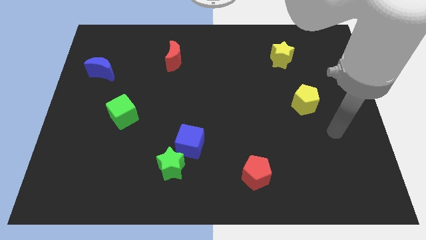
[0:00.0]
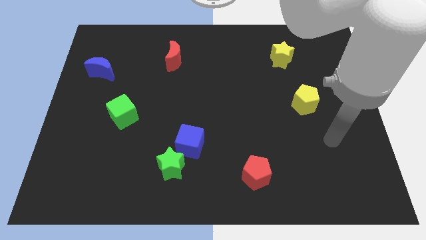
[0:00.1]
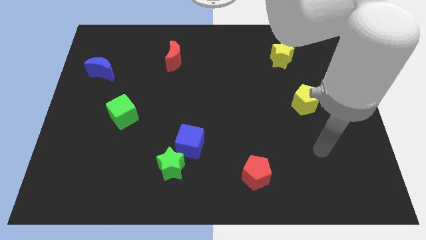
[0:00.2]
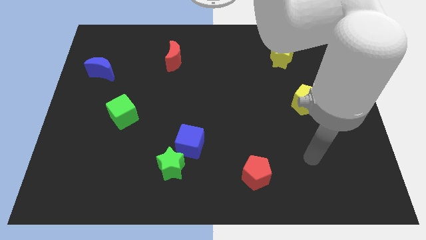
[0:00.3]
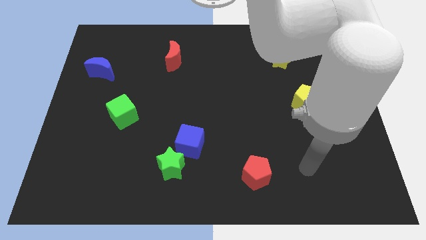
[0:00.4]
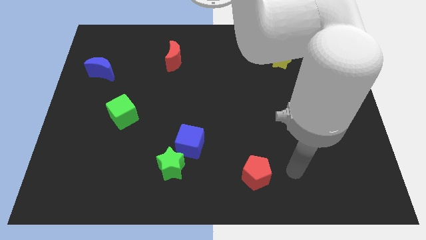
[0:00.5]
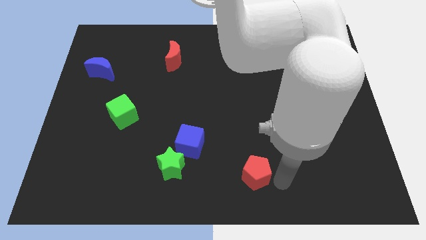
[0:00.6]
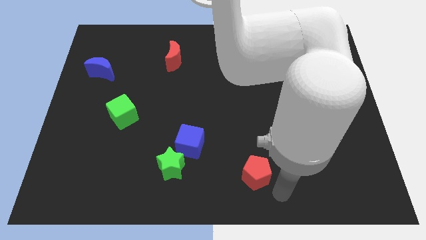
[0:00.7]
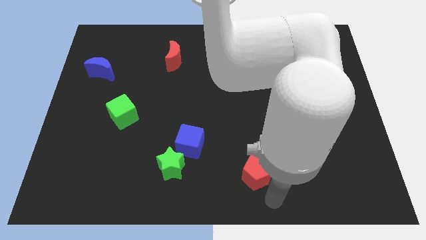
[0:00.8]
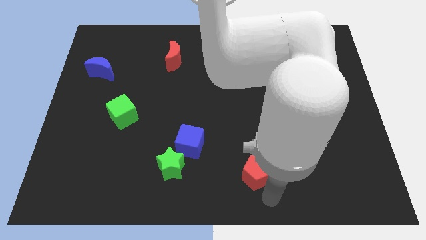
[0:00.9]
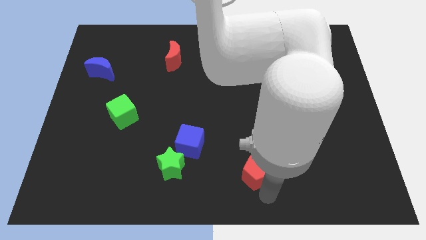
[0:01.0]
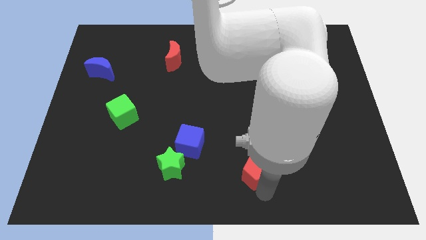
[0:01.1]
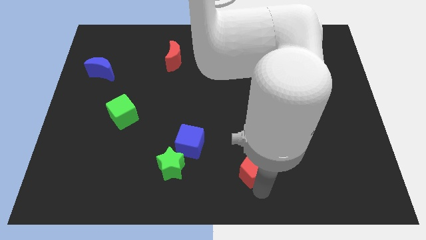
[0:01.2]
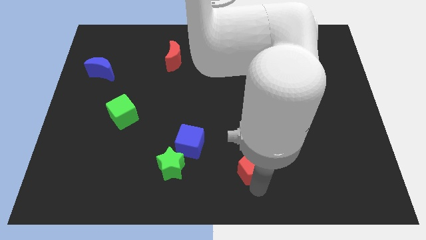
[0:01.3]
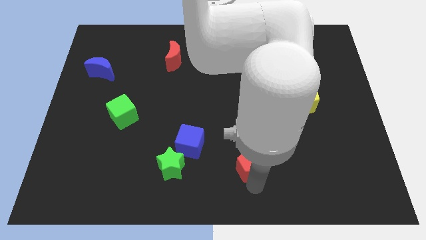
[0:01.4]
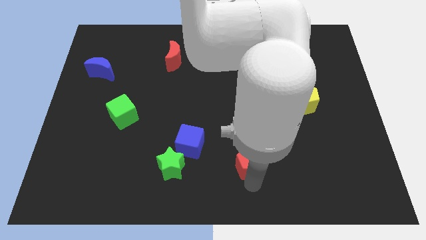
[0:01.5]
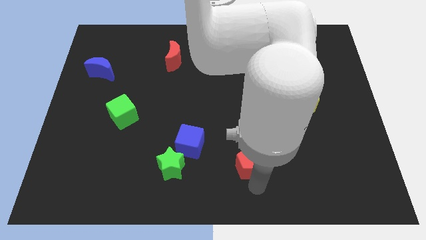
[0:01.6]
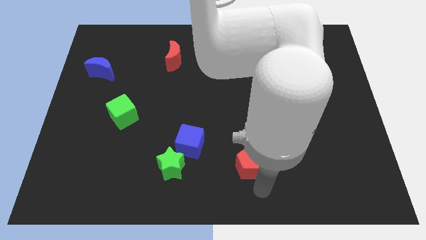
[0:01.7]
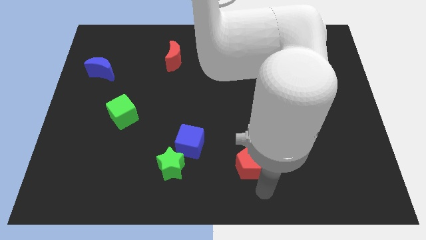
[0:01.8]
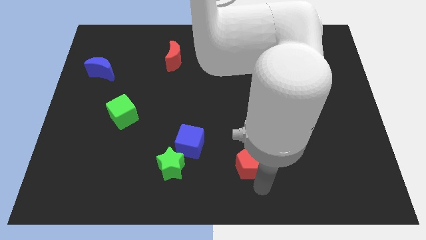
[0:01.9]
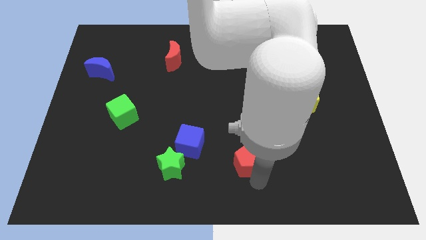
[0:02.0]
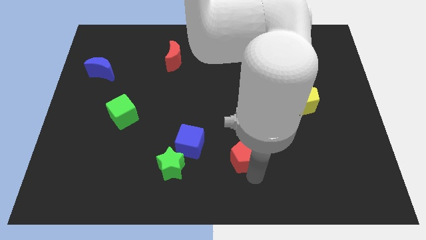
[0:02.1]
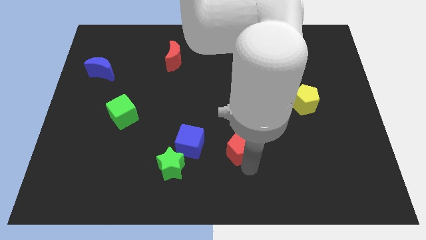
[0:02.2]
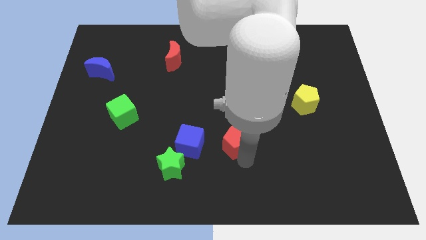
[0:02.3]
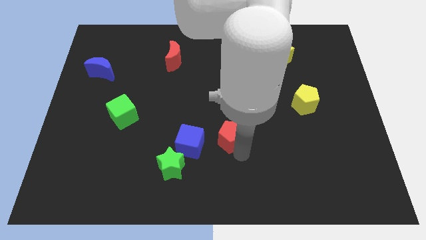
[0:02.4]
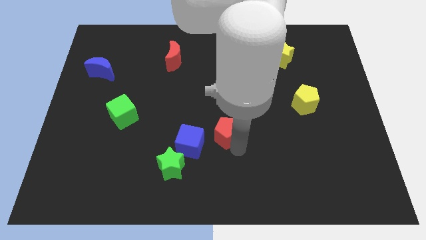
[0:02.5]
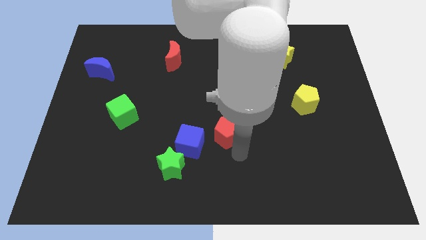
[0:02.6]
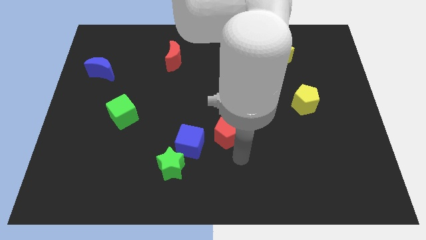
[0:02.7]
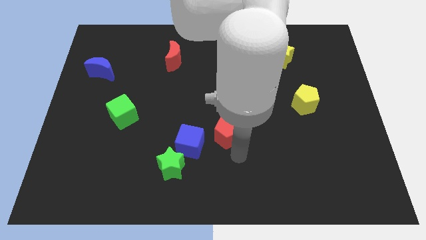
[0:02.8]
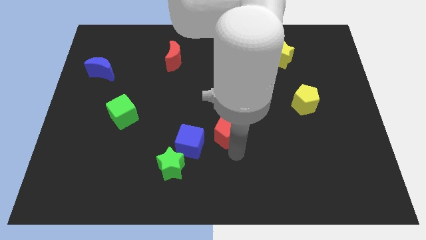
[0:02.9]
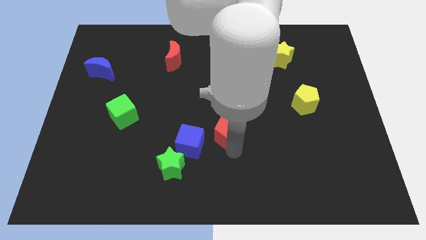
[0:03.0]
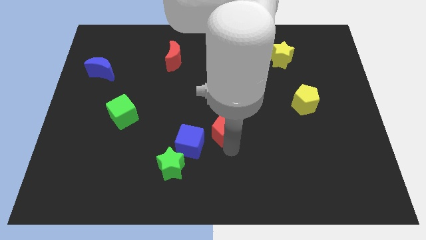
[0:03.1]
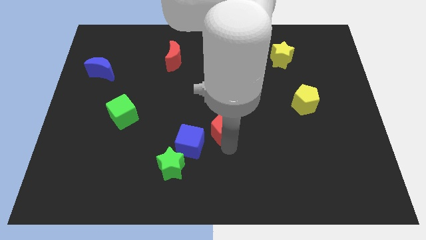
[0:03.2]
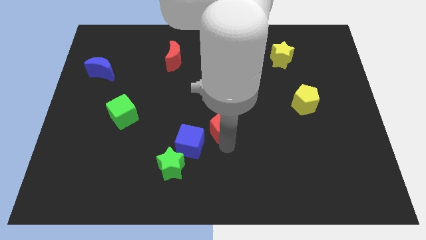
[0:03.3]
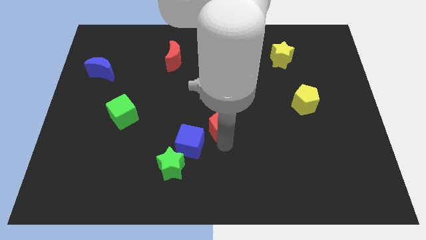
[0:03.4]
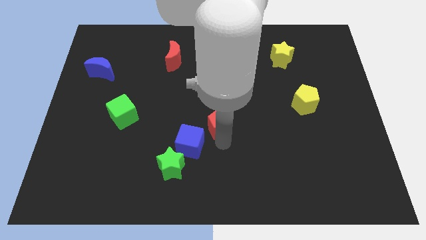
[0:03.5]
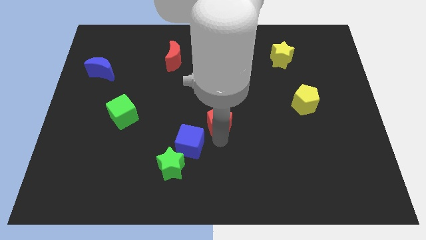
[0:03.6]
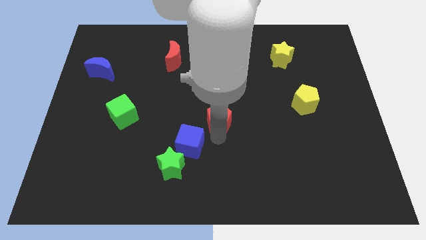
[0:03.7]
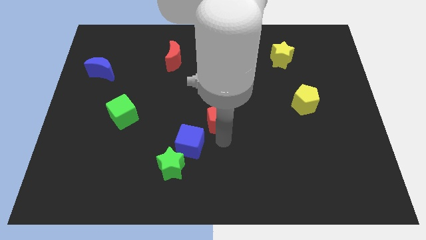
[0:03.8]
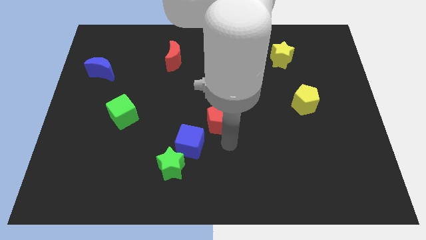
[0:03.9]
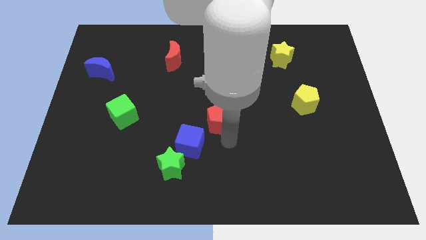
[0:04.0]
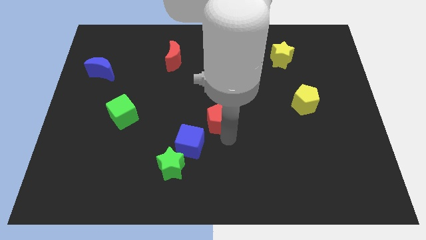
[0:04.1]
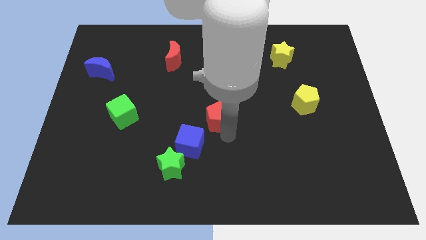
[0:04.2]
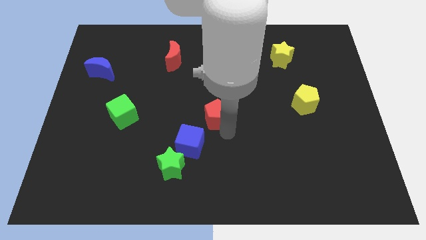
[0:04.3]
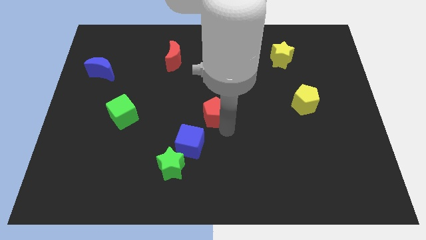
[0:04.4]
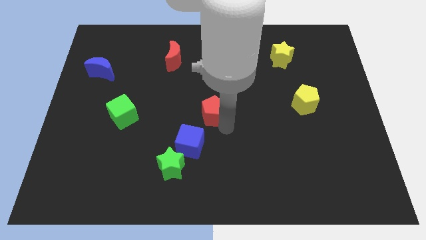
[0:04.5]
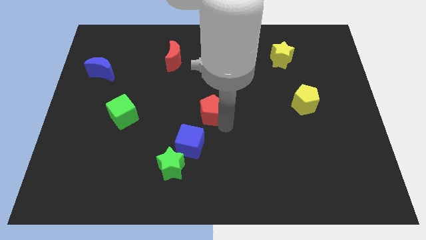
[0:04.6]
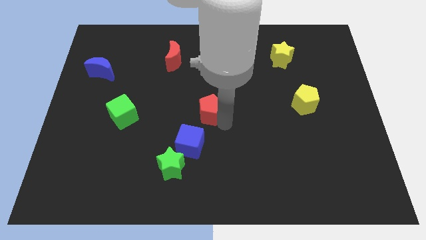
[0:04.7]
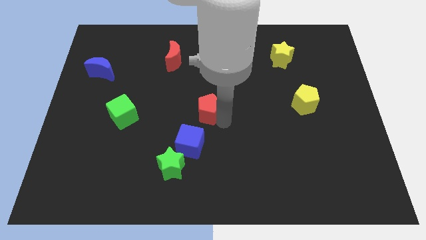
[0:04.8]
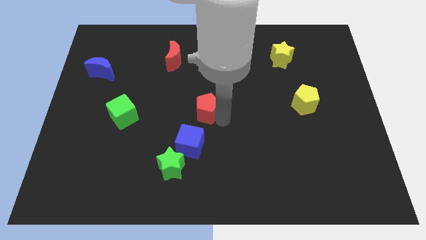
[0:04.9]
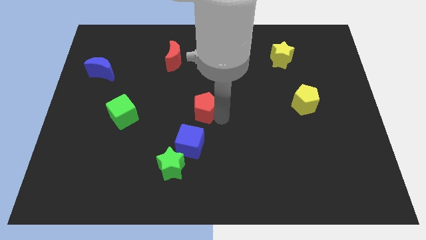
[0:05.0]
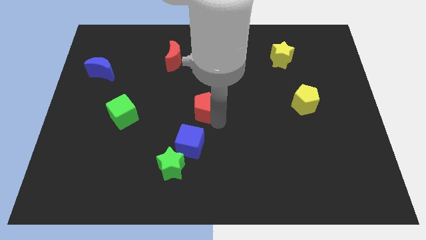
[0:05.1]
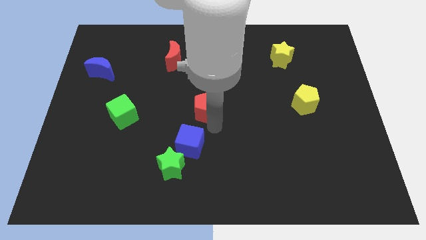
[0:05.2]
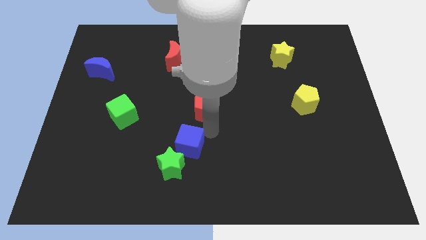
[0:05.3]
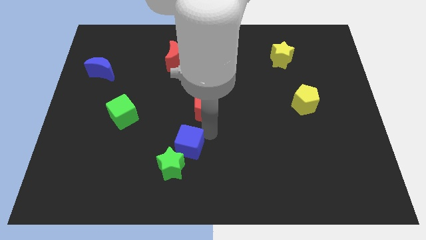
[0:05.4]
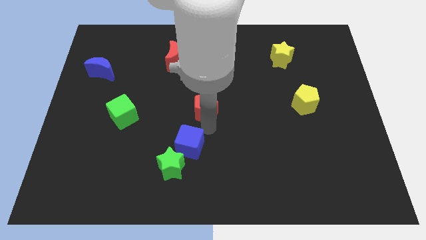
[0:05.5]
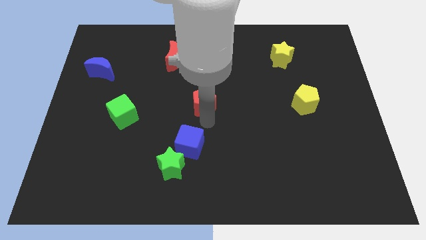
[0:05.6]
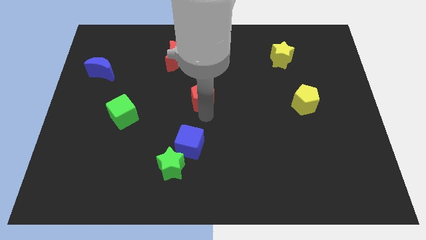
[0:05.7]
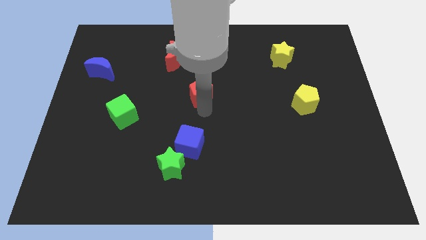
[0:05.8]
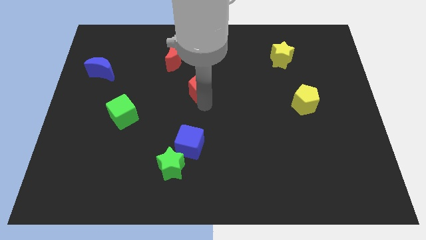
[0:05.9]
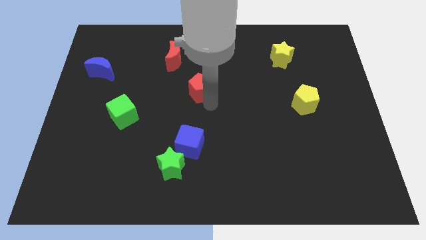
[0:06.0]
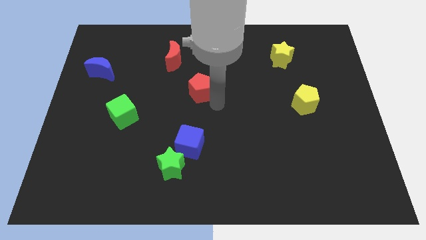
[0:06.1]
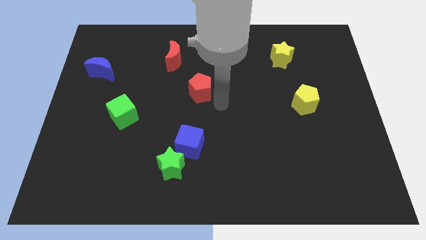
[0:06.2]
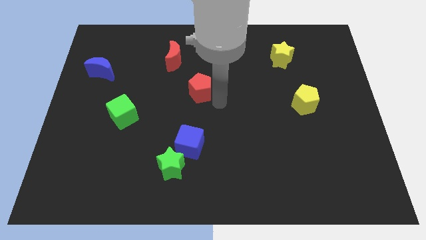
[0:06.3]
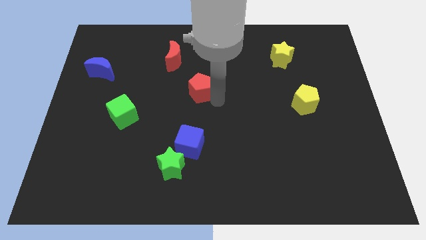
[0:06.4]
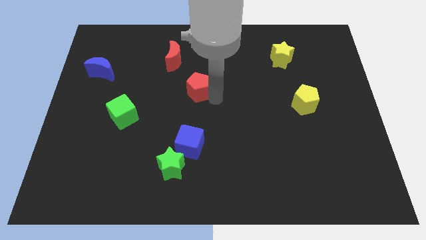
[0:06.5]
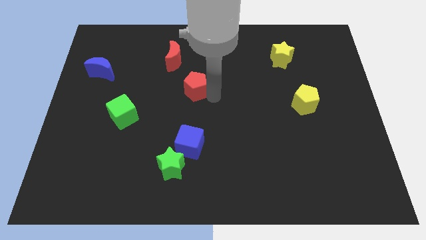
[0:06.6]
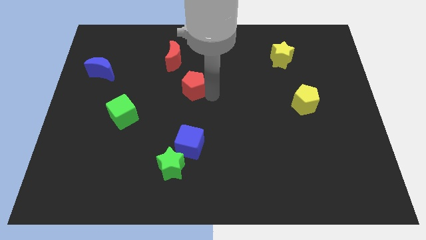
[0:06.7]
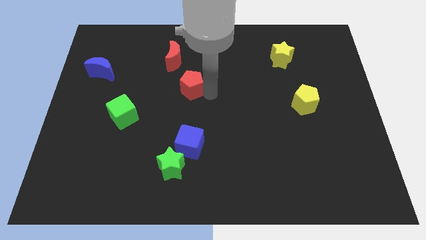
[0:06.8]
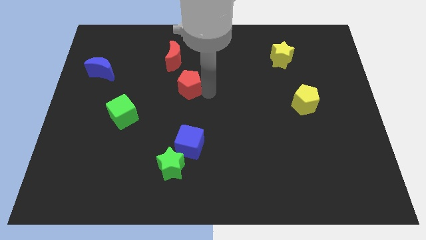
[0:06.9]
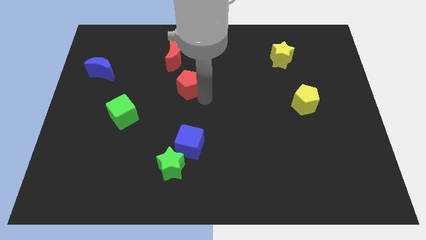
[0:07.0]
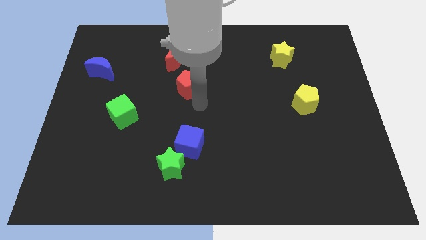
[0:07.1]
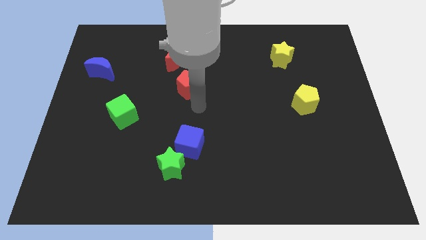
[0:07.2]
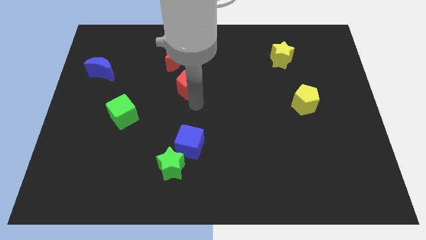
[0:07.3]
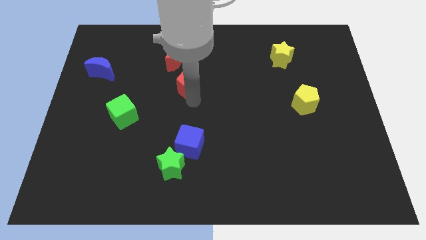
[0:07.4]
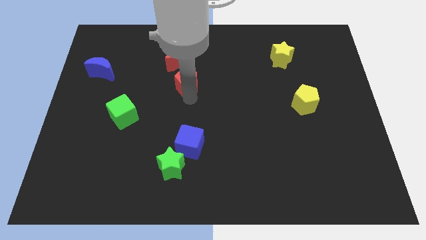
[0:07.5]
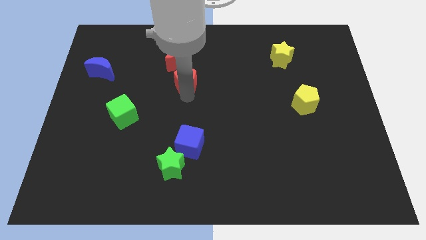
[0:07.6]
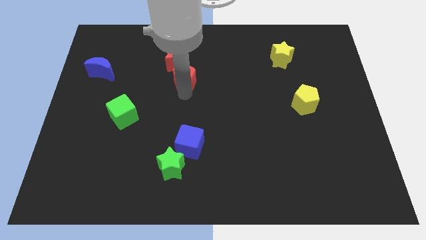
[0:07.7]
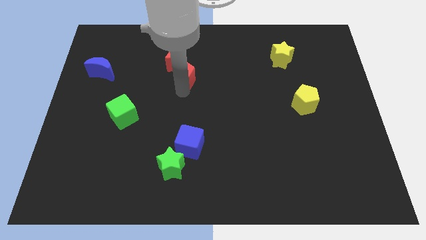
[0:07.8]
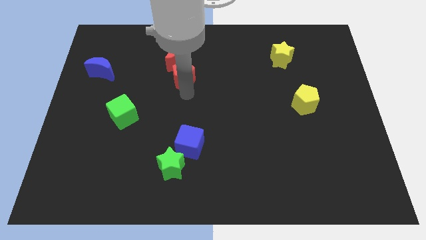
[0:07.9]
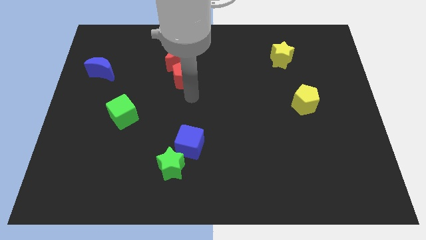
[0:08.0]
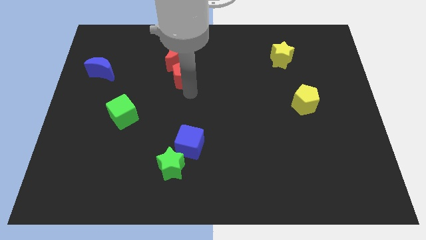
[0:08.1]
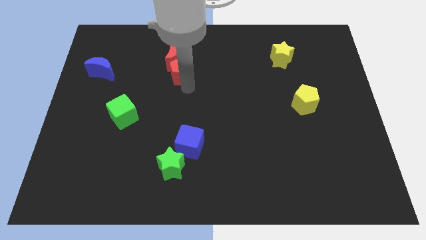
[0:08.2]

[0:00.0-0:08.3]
slide the red pentagon close to the red moon
